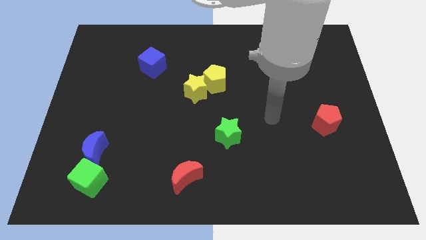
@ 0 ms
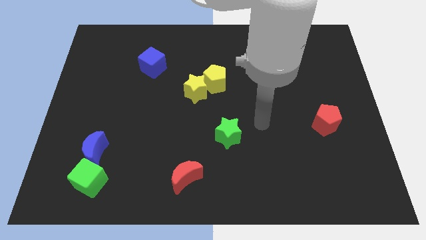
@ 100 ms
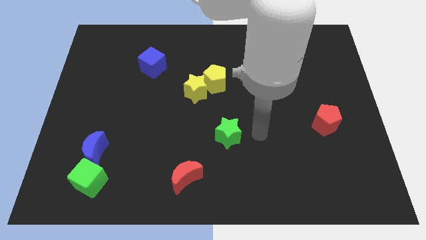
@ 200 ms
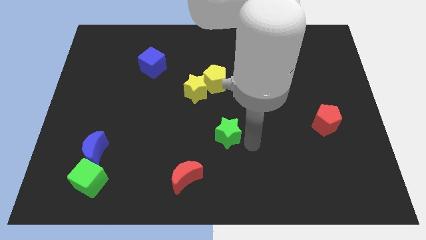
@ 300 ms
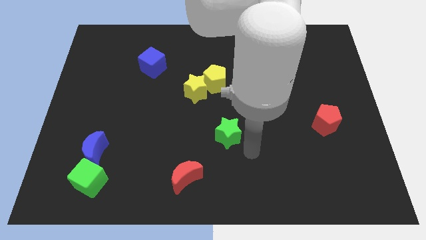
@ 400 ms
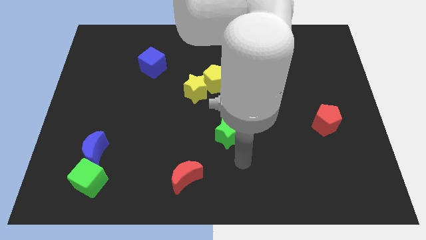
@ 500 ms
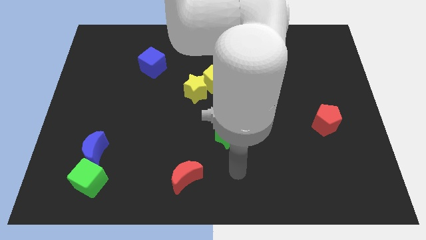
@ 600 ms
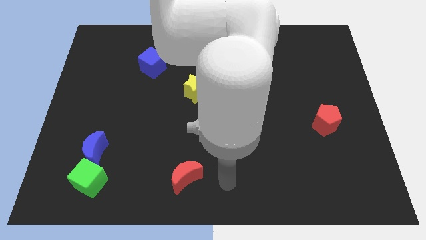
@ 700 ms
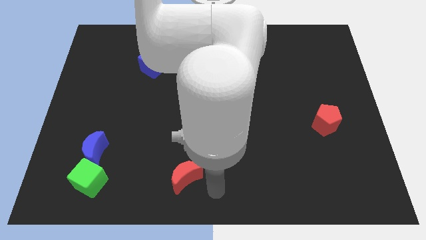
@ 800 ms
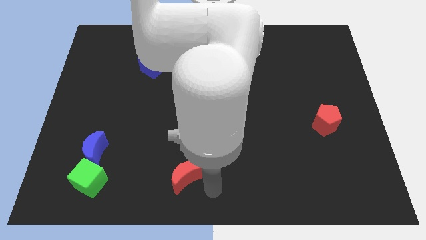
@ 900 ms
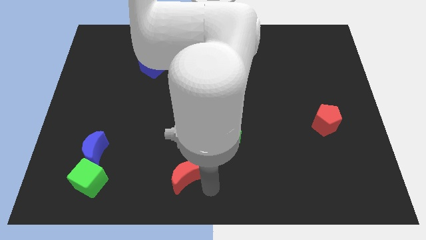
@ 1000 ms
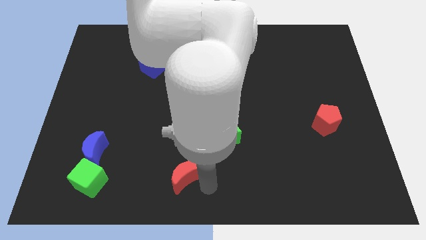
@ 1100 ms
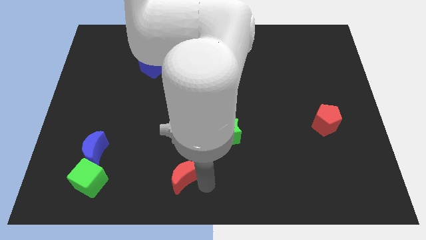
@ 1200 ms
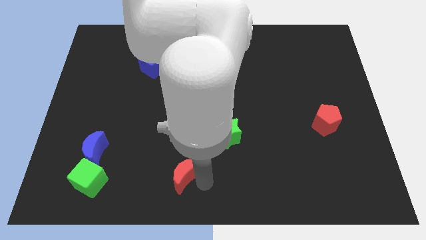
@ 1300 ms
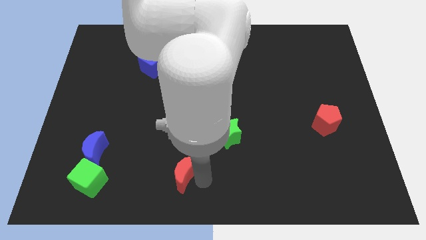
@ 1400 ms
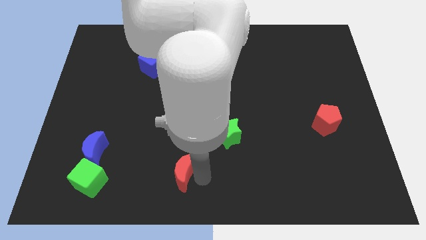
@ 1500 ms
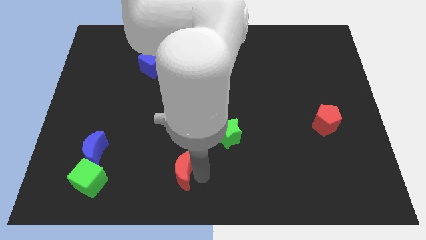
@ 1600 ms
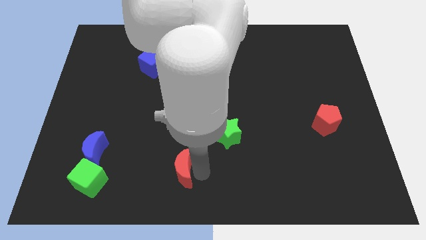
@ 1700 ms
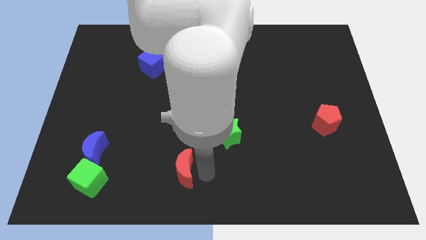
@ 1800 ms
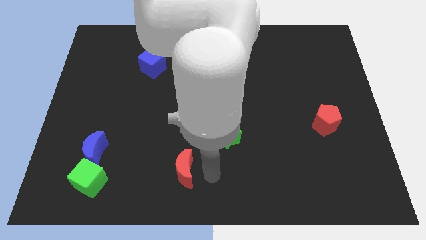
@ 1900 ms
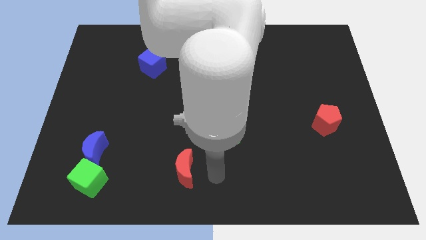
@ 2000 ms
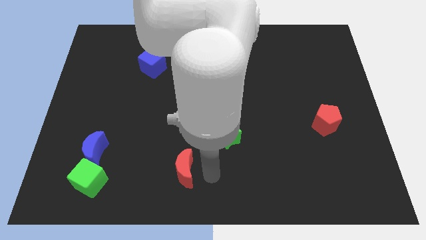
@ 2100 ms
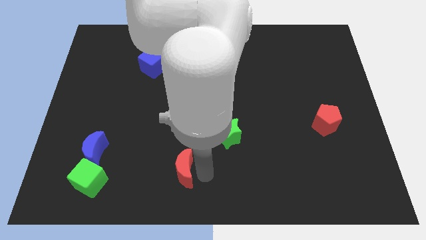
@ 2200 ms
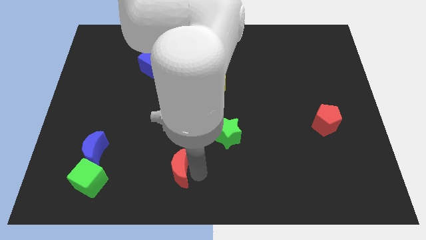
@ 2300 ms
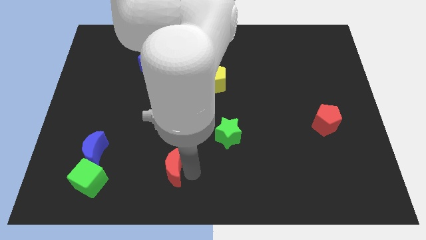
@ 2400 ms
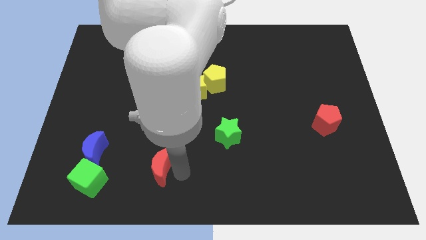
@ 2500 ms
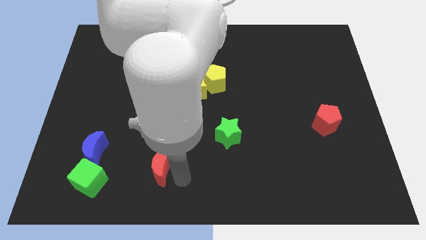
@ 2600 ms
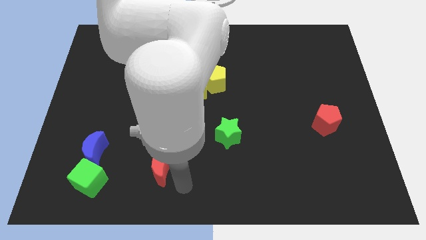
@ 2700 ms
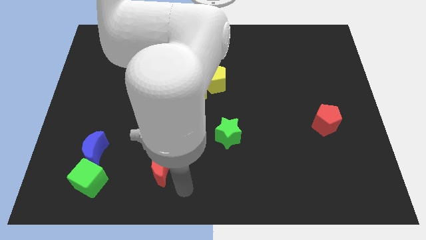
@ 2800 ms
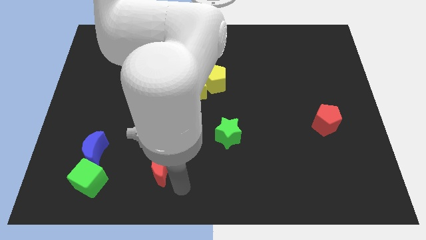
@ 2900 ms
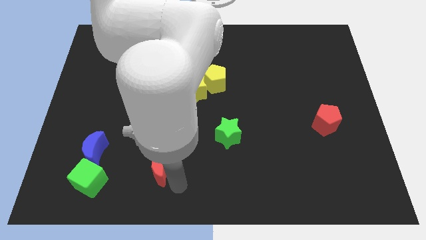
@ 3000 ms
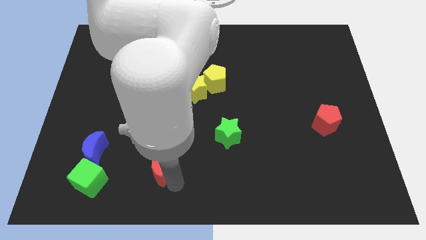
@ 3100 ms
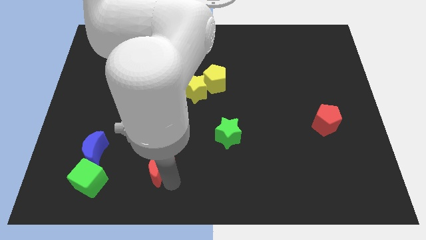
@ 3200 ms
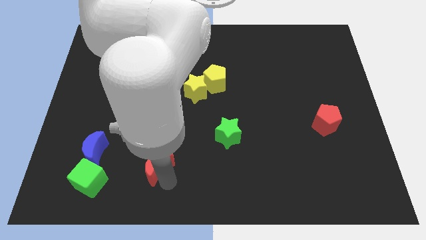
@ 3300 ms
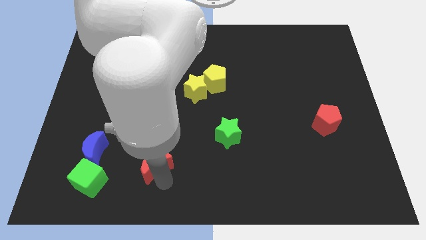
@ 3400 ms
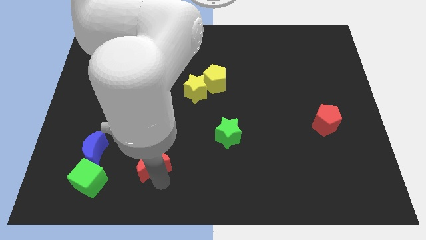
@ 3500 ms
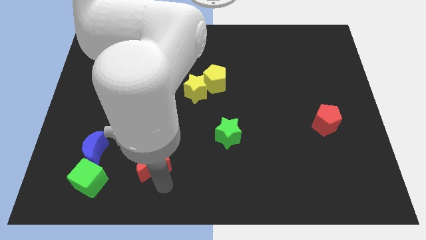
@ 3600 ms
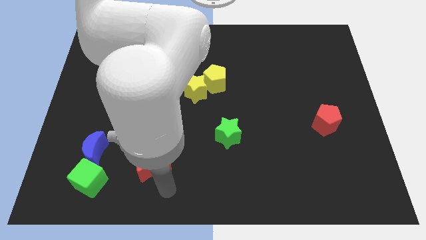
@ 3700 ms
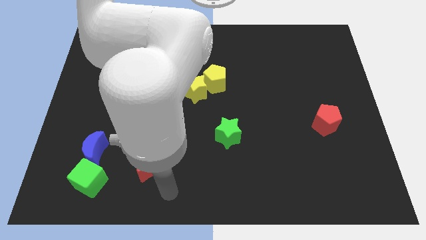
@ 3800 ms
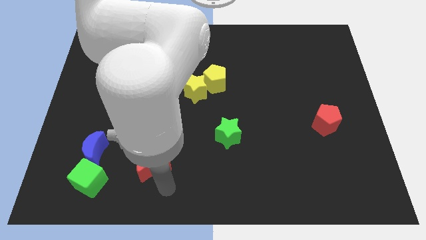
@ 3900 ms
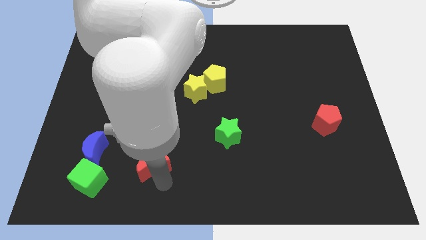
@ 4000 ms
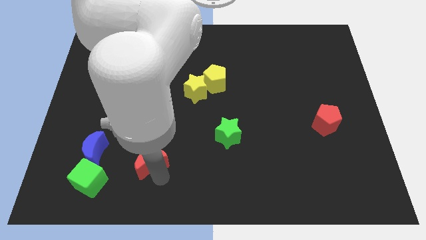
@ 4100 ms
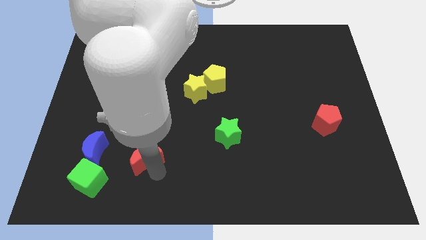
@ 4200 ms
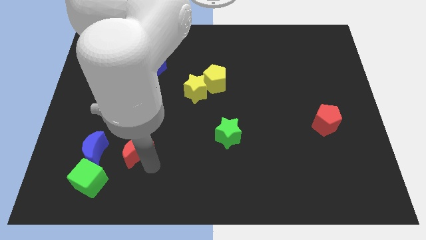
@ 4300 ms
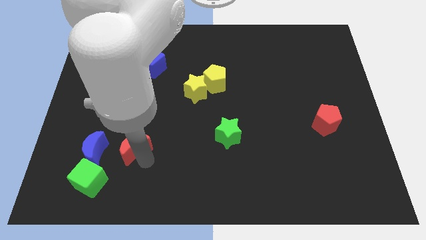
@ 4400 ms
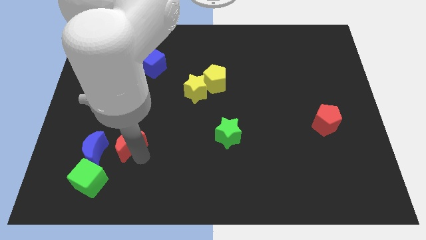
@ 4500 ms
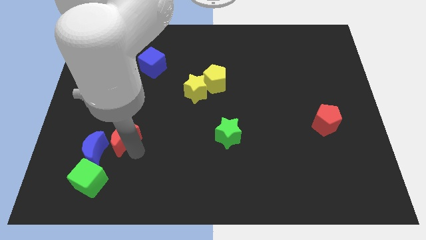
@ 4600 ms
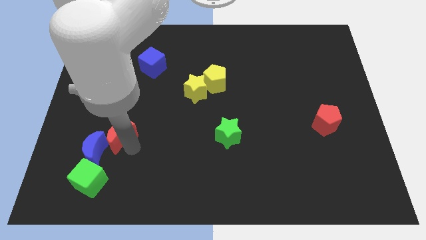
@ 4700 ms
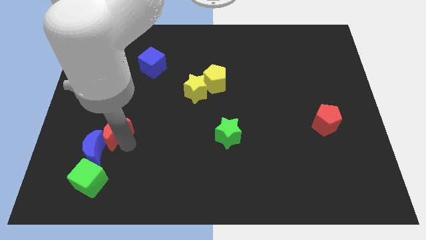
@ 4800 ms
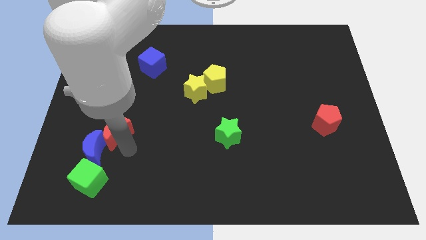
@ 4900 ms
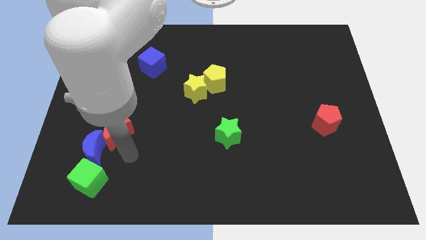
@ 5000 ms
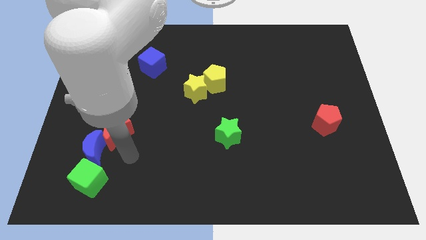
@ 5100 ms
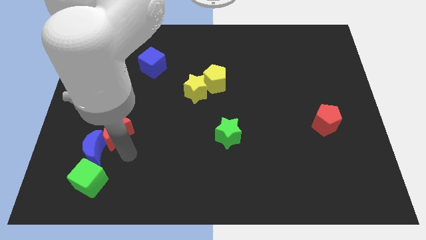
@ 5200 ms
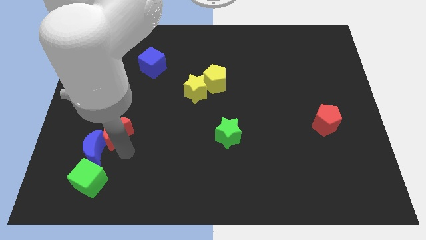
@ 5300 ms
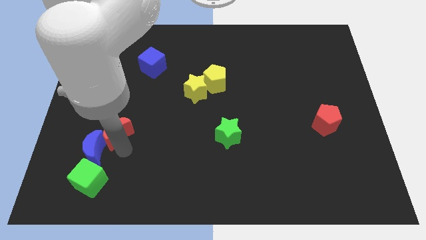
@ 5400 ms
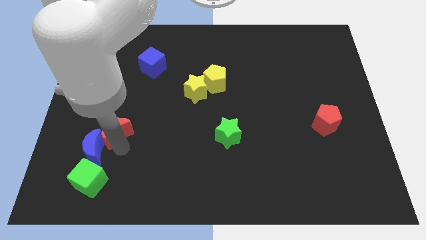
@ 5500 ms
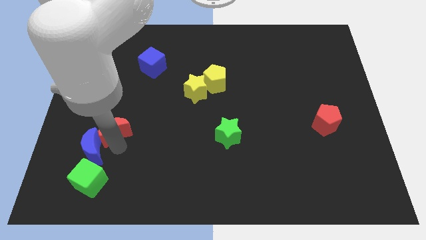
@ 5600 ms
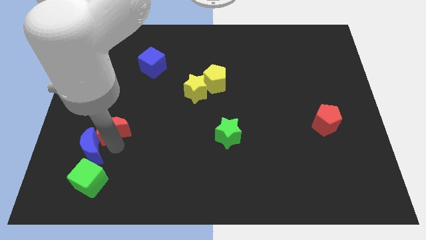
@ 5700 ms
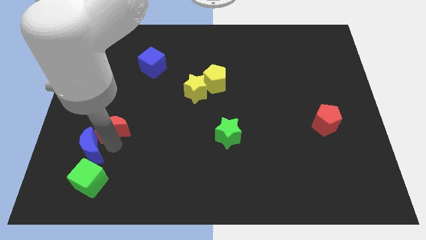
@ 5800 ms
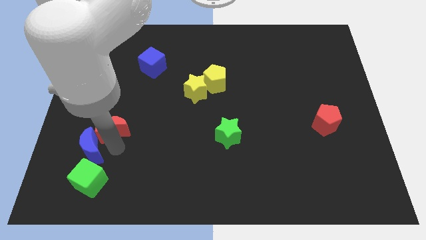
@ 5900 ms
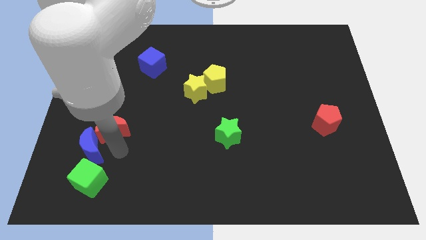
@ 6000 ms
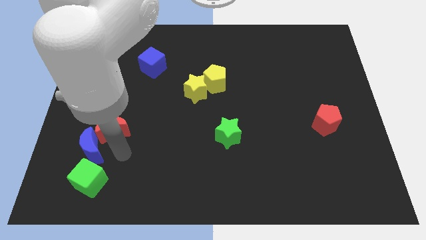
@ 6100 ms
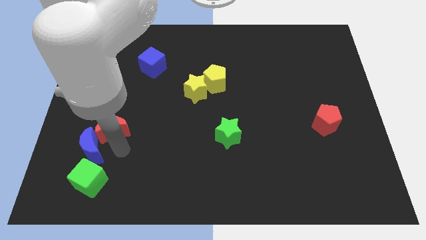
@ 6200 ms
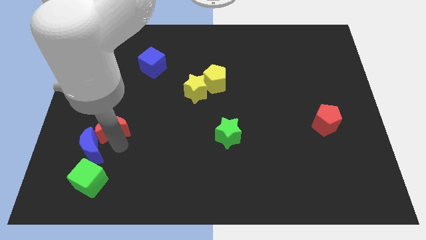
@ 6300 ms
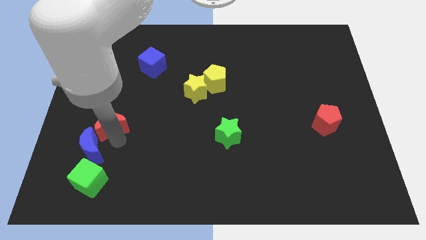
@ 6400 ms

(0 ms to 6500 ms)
push the red moon up and then left

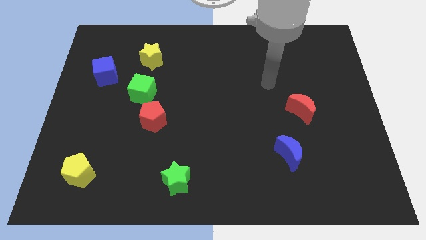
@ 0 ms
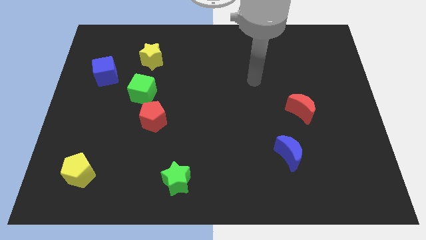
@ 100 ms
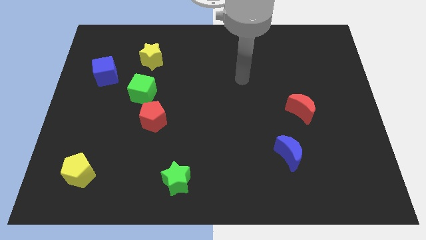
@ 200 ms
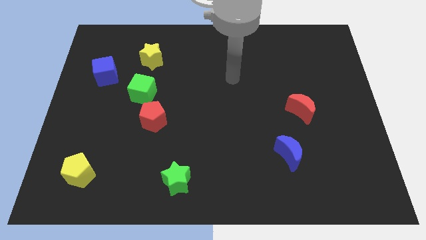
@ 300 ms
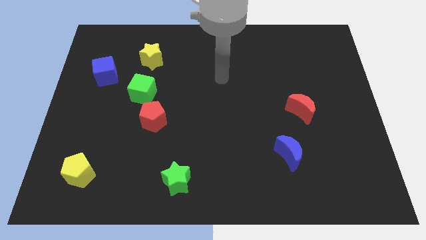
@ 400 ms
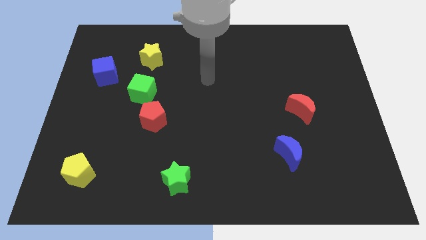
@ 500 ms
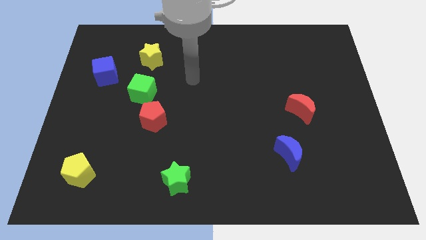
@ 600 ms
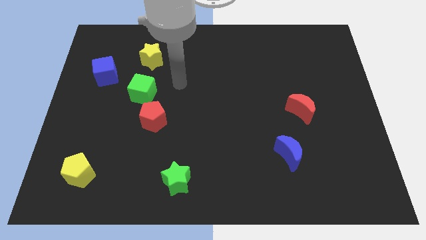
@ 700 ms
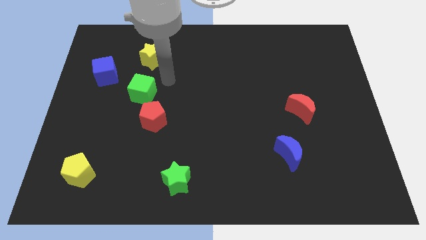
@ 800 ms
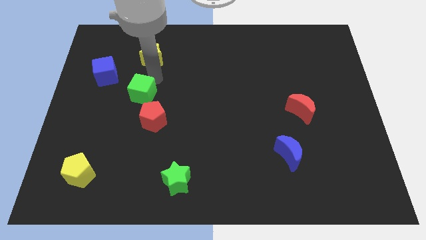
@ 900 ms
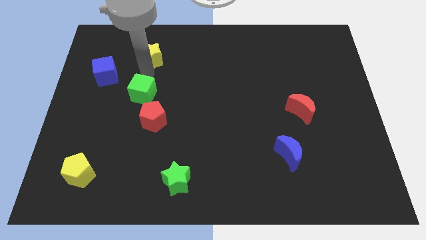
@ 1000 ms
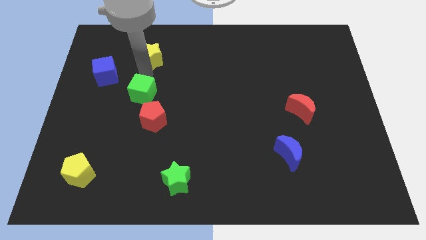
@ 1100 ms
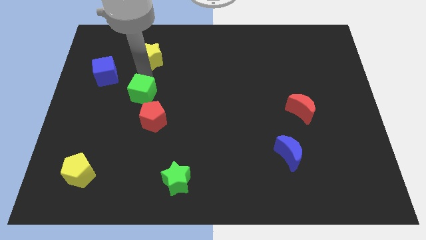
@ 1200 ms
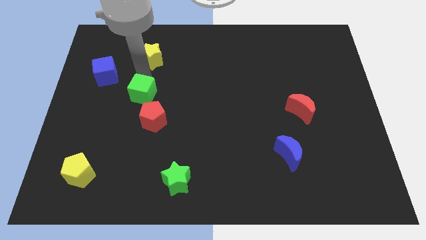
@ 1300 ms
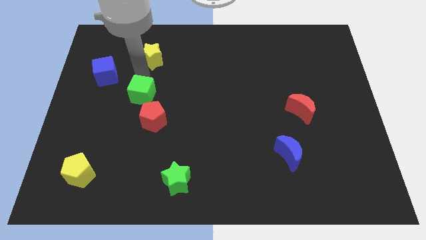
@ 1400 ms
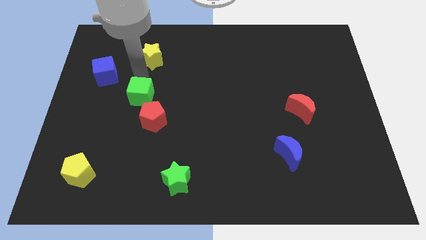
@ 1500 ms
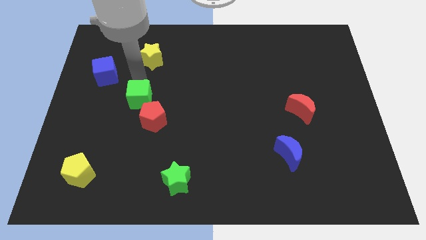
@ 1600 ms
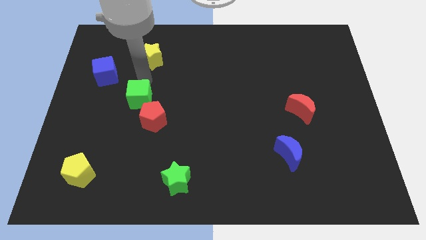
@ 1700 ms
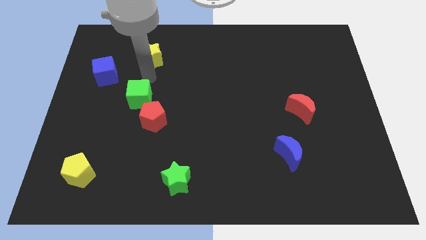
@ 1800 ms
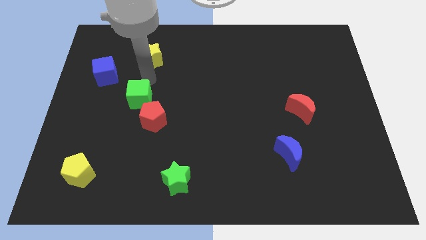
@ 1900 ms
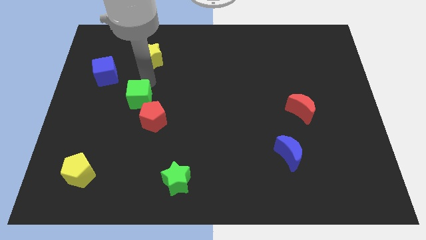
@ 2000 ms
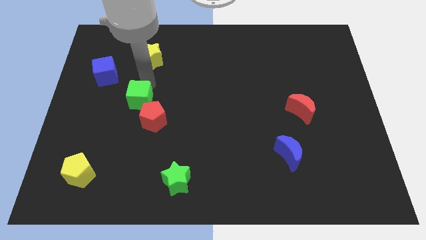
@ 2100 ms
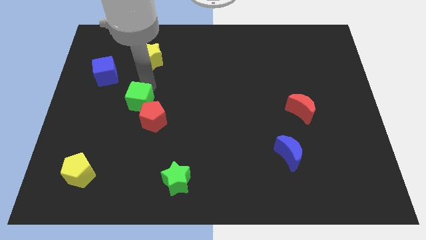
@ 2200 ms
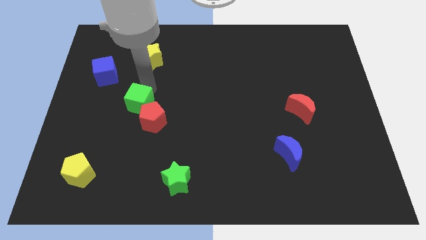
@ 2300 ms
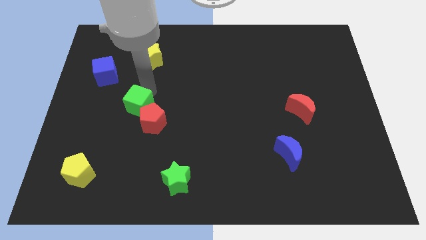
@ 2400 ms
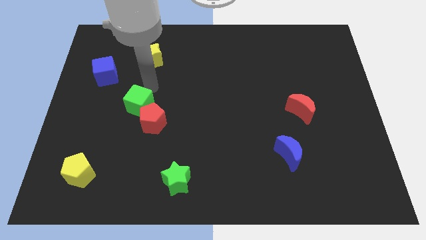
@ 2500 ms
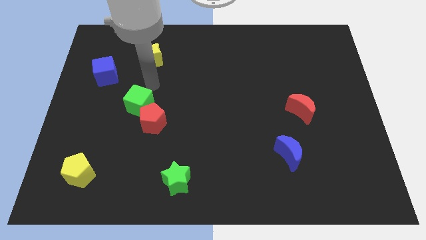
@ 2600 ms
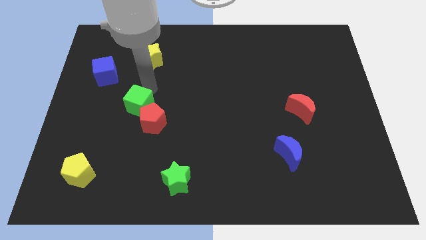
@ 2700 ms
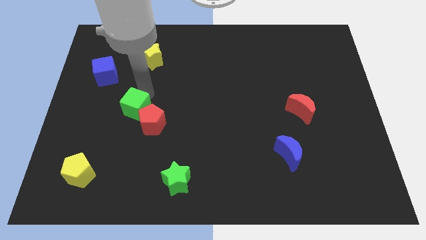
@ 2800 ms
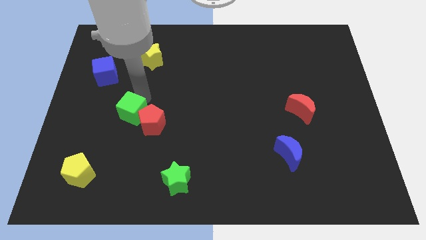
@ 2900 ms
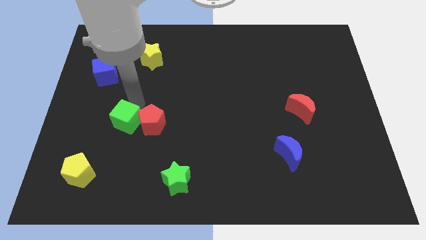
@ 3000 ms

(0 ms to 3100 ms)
slightly slide the green cube down
